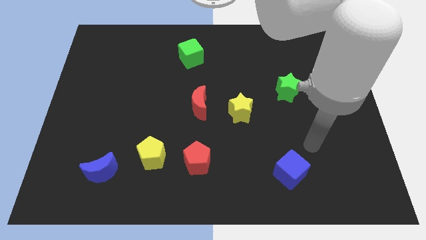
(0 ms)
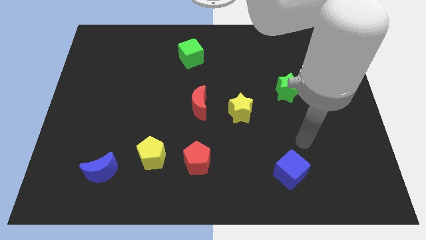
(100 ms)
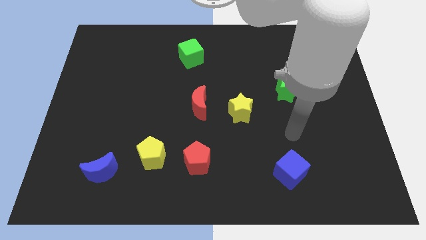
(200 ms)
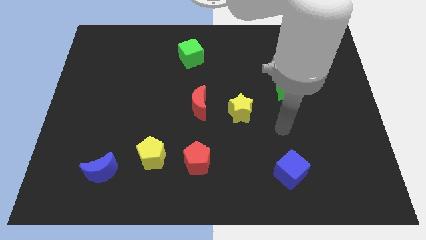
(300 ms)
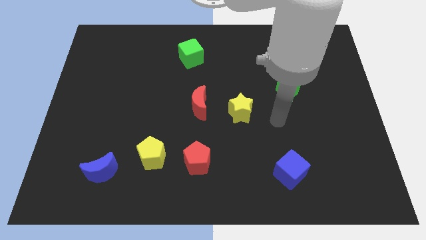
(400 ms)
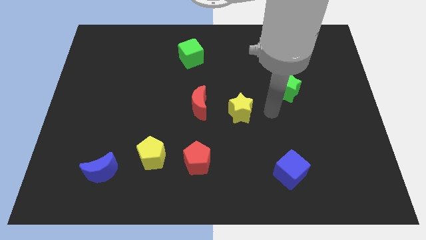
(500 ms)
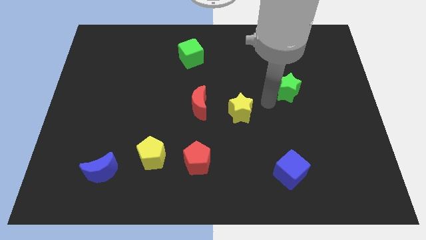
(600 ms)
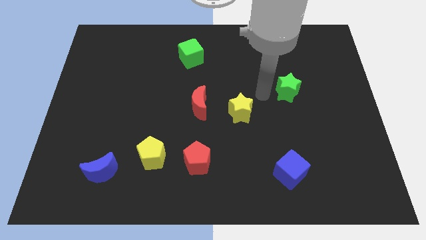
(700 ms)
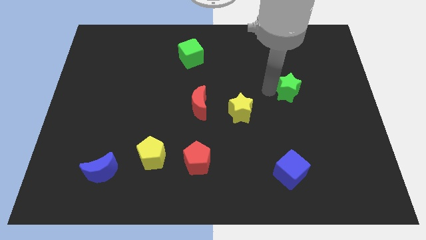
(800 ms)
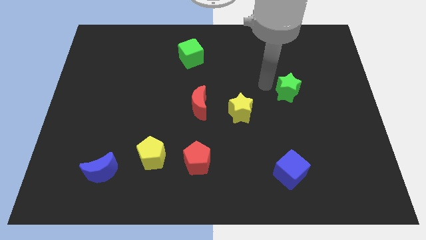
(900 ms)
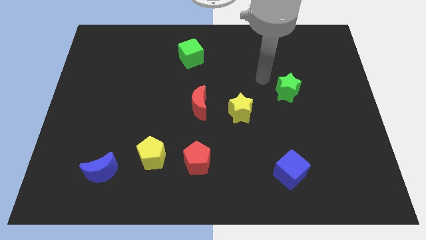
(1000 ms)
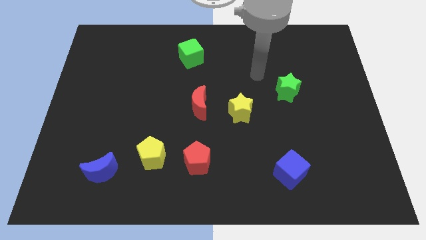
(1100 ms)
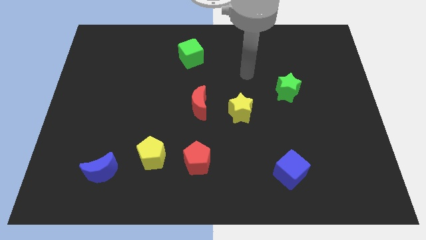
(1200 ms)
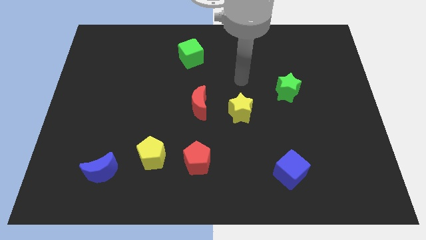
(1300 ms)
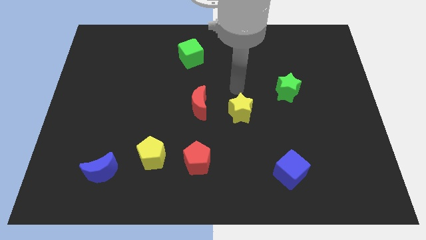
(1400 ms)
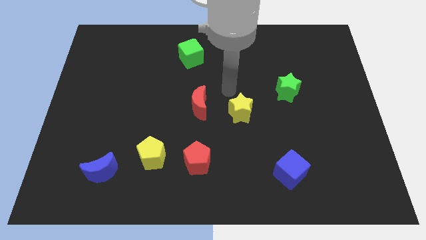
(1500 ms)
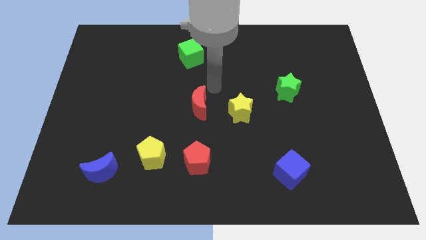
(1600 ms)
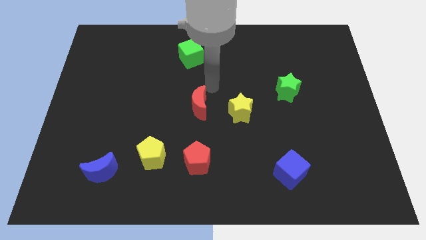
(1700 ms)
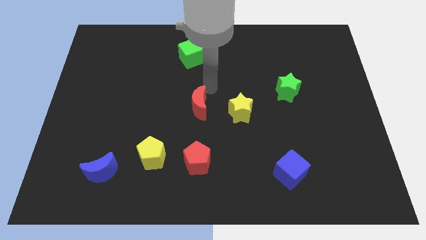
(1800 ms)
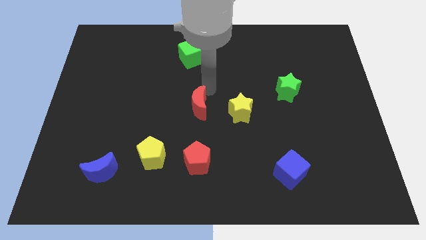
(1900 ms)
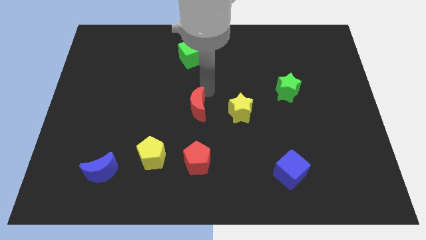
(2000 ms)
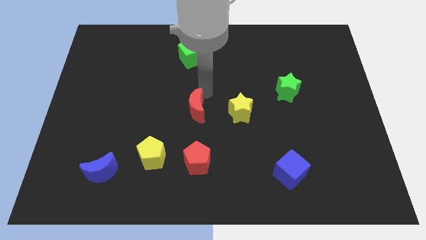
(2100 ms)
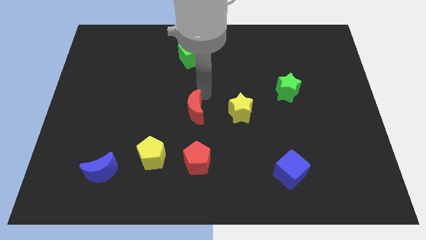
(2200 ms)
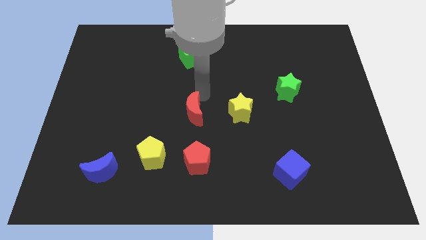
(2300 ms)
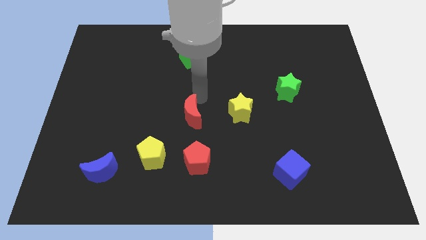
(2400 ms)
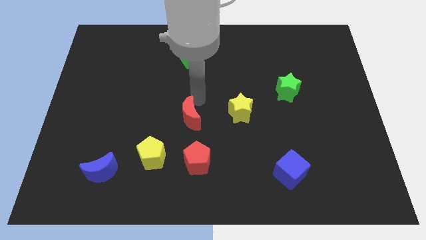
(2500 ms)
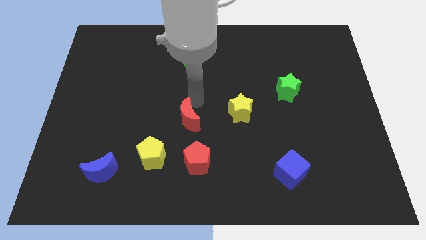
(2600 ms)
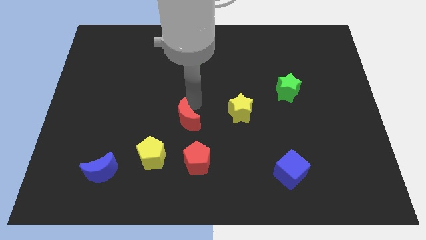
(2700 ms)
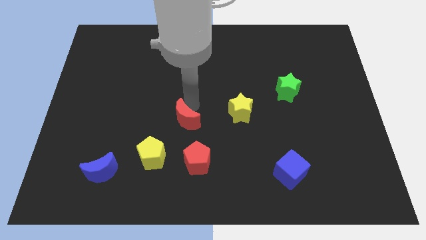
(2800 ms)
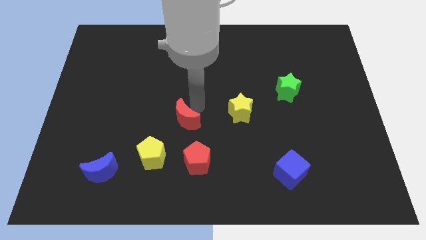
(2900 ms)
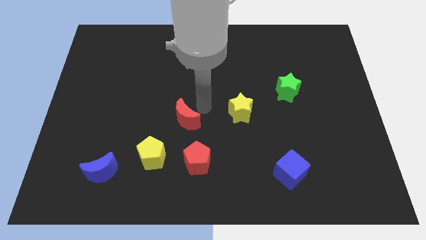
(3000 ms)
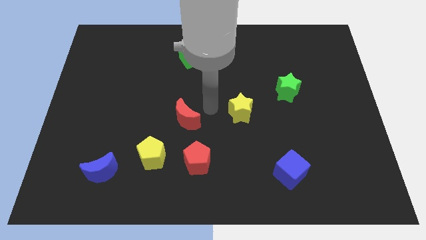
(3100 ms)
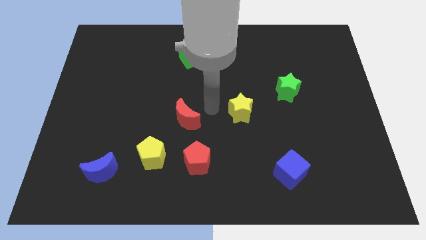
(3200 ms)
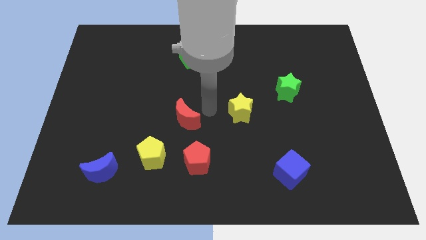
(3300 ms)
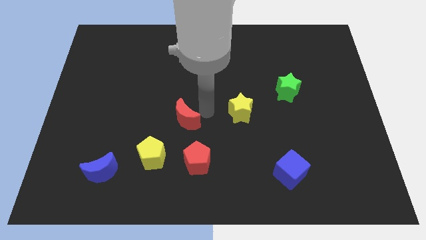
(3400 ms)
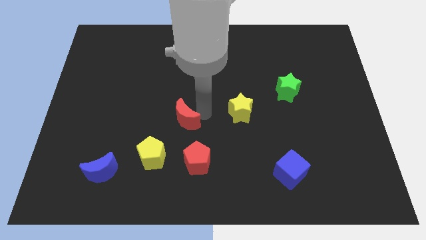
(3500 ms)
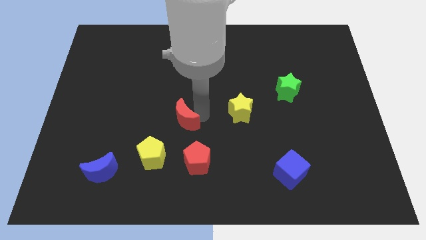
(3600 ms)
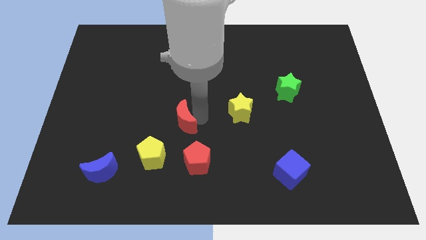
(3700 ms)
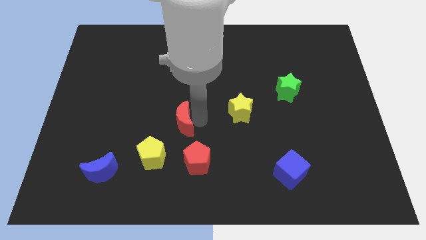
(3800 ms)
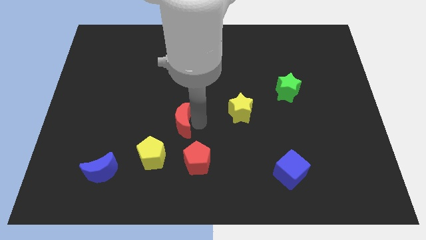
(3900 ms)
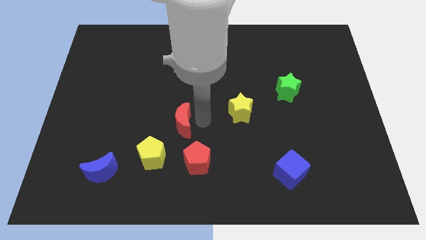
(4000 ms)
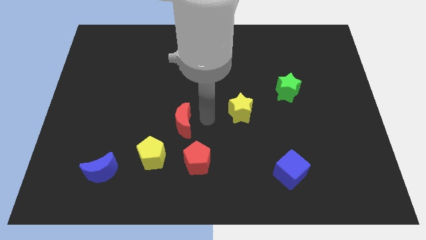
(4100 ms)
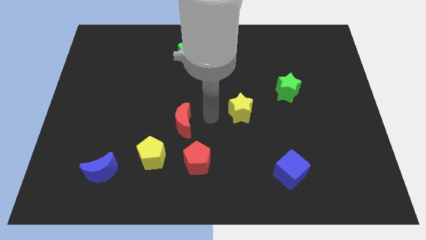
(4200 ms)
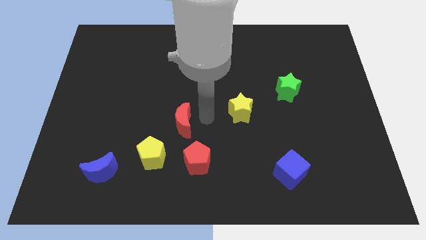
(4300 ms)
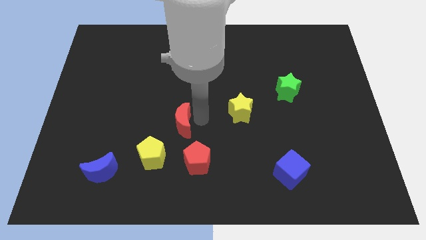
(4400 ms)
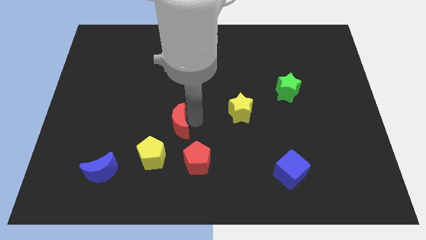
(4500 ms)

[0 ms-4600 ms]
push the red moon a little bit downwards and left diagonally

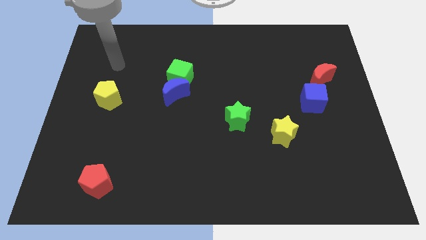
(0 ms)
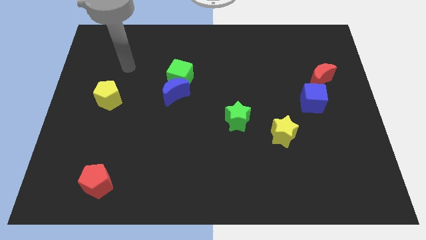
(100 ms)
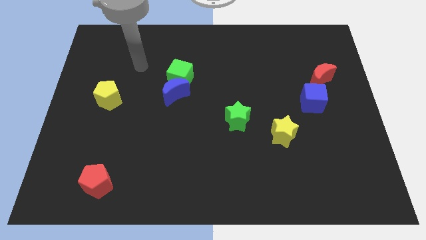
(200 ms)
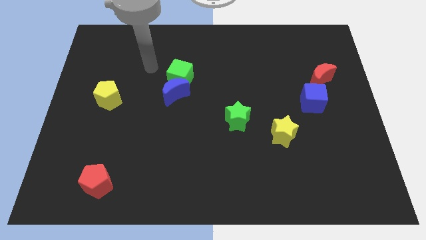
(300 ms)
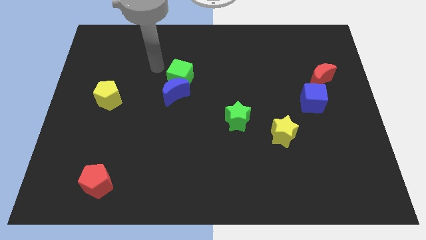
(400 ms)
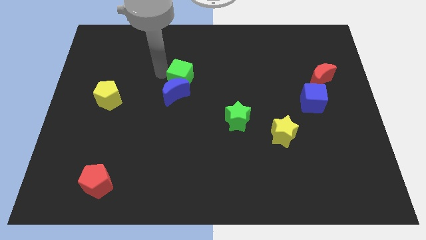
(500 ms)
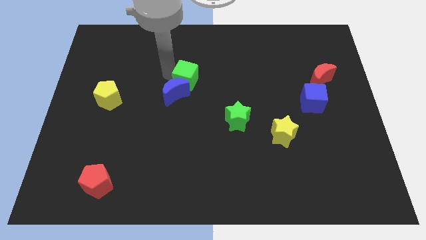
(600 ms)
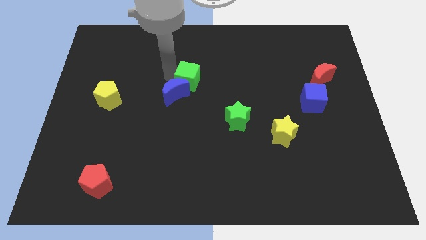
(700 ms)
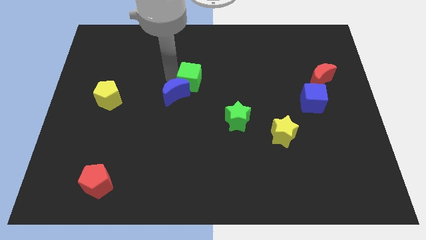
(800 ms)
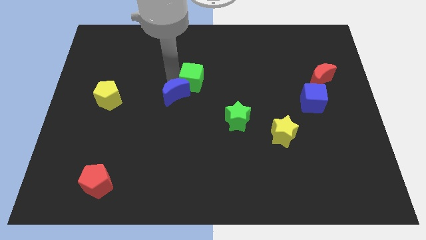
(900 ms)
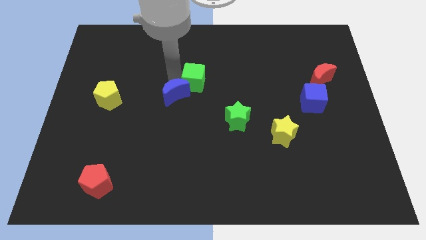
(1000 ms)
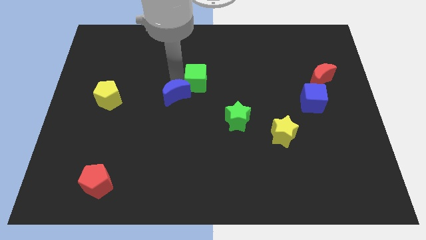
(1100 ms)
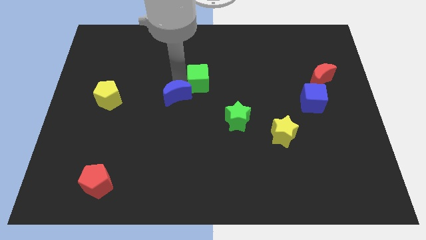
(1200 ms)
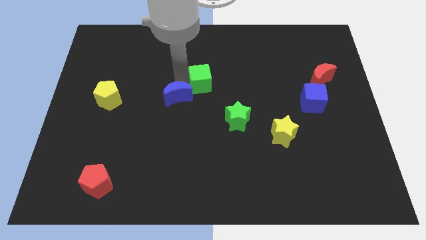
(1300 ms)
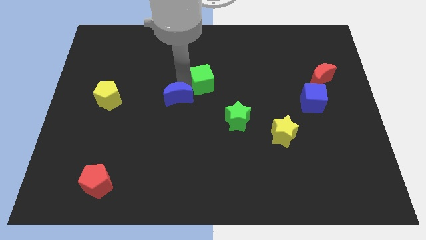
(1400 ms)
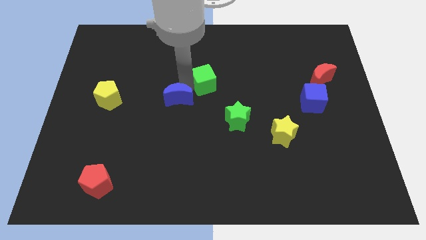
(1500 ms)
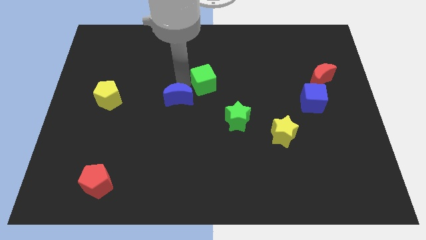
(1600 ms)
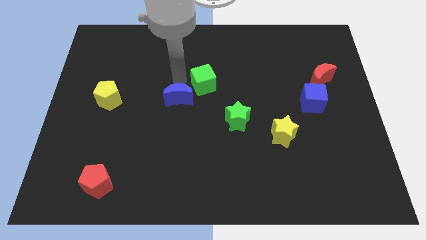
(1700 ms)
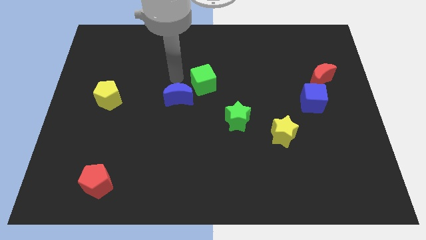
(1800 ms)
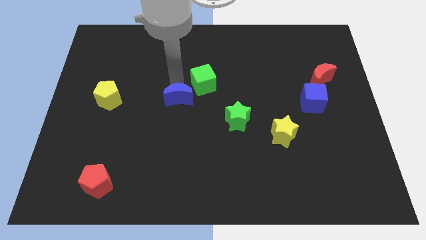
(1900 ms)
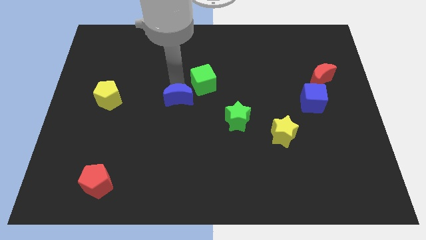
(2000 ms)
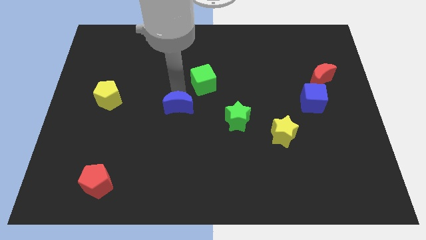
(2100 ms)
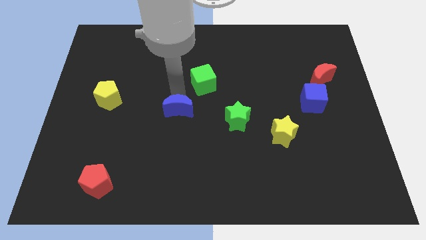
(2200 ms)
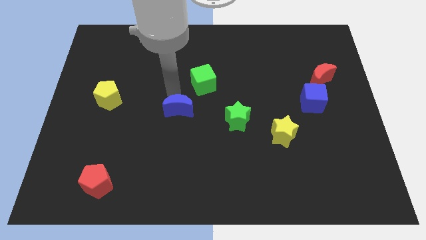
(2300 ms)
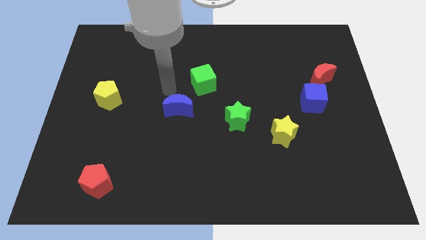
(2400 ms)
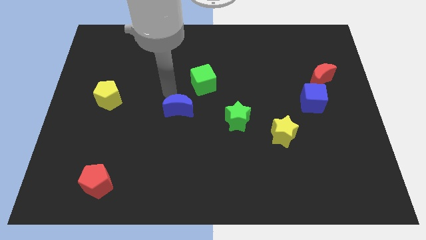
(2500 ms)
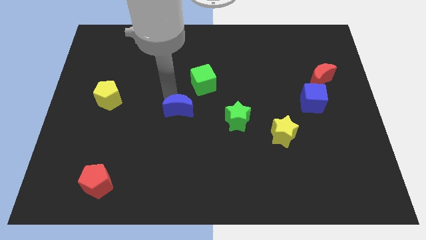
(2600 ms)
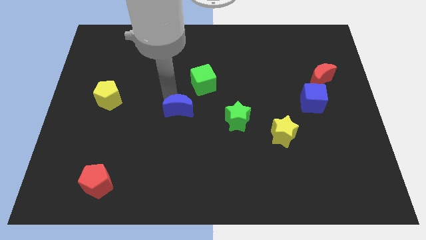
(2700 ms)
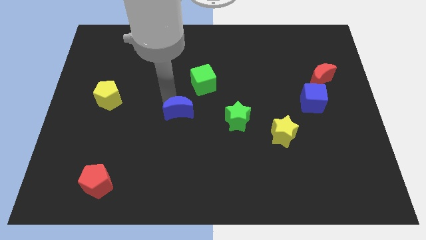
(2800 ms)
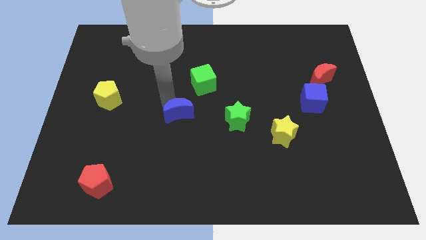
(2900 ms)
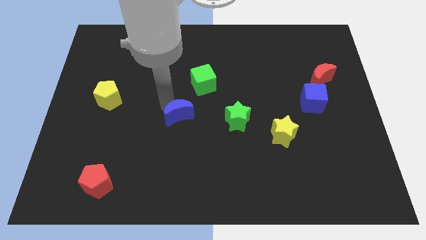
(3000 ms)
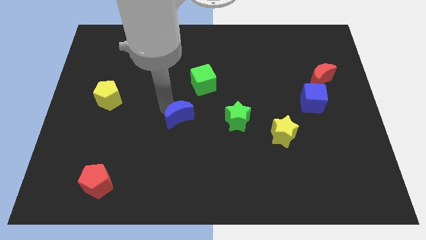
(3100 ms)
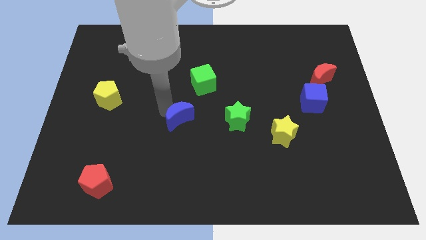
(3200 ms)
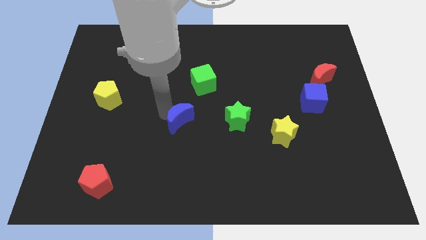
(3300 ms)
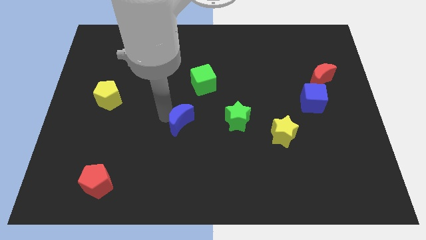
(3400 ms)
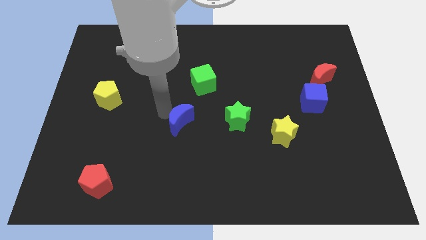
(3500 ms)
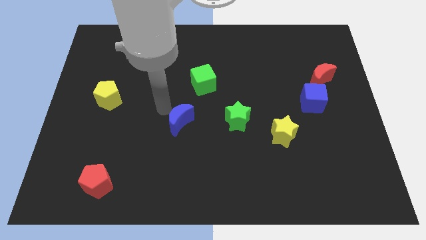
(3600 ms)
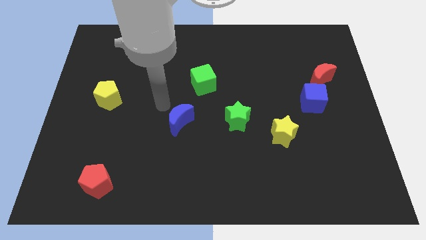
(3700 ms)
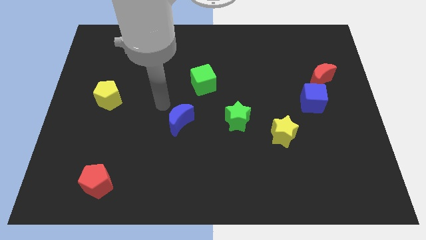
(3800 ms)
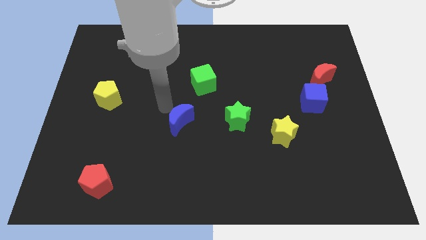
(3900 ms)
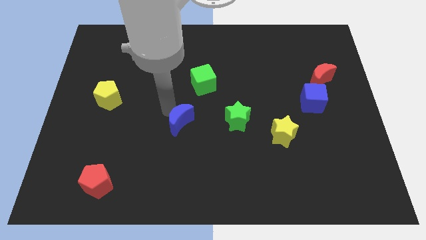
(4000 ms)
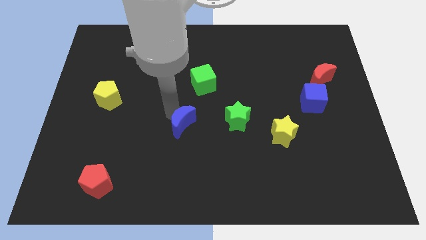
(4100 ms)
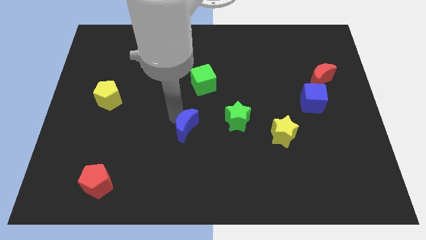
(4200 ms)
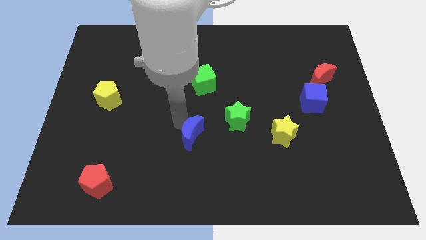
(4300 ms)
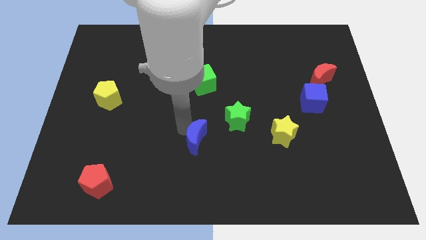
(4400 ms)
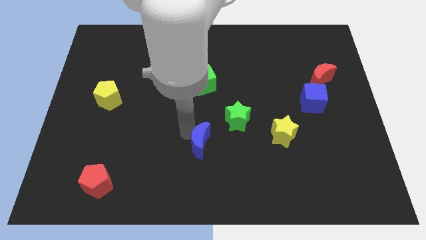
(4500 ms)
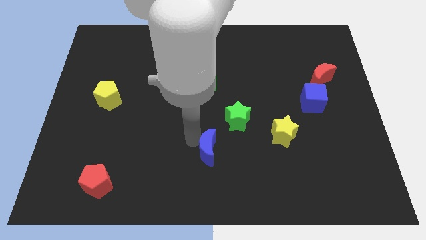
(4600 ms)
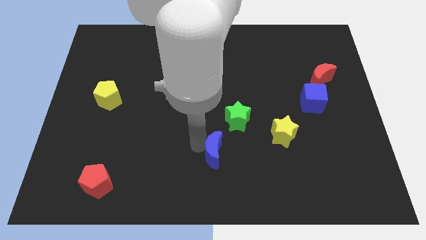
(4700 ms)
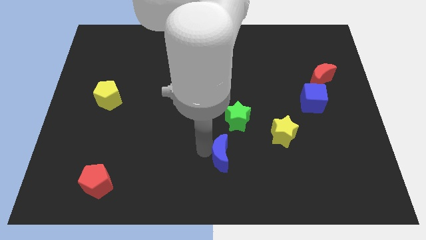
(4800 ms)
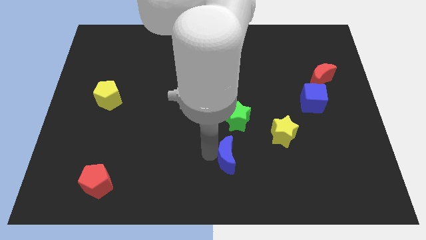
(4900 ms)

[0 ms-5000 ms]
move the blue moon downwards and to the right diagonally
